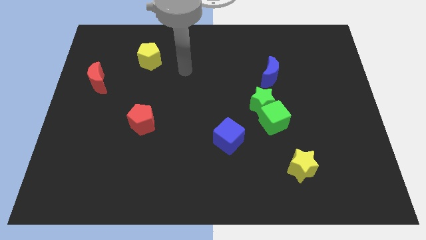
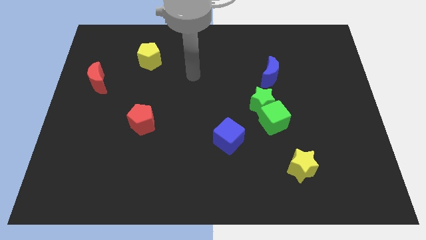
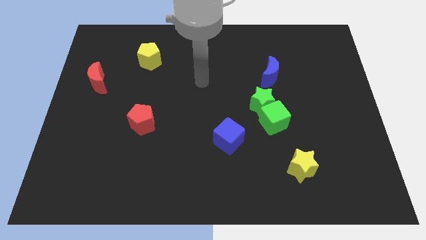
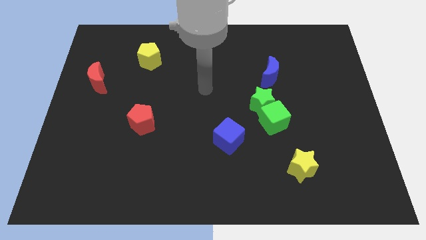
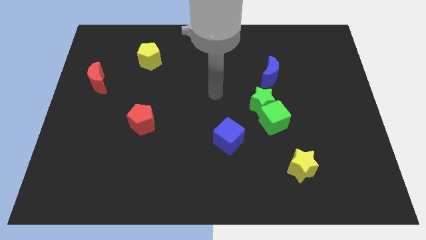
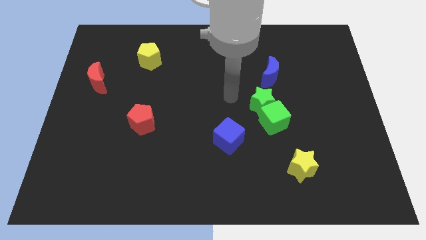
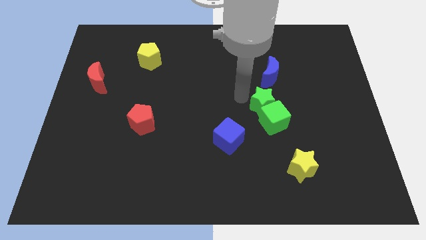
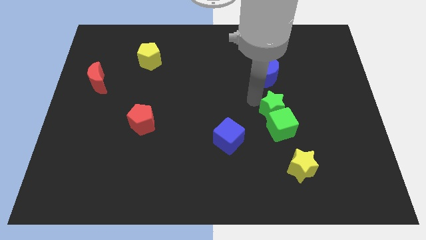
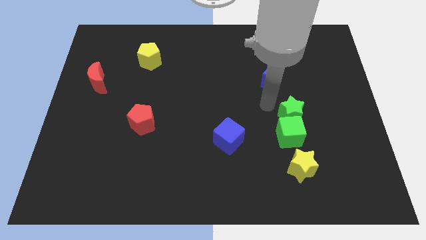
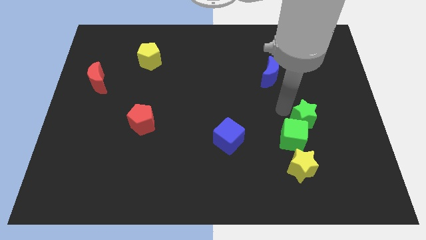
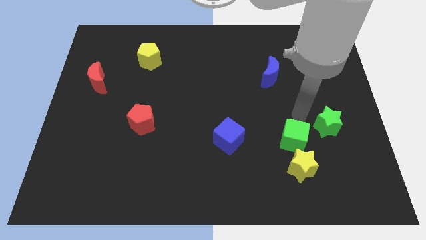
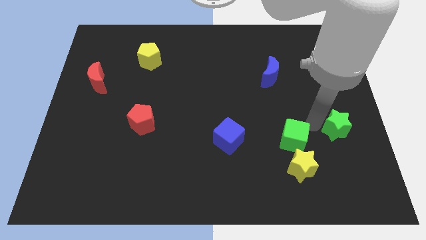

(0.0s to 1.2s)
move the green cube away from the green star

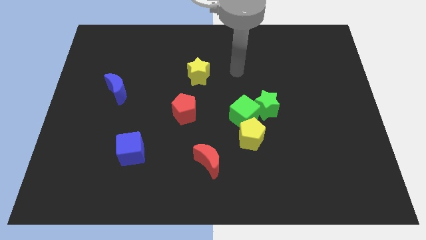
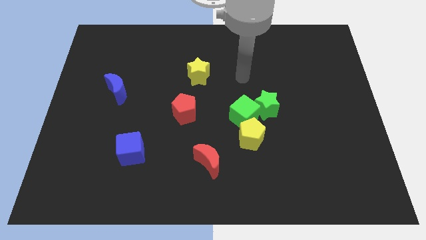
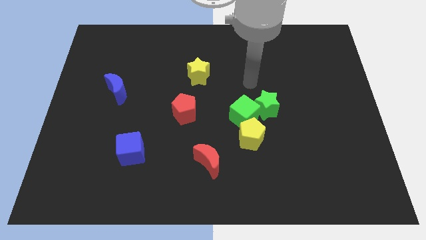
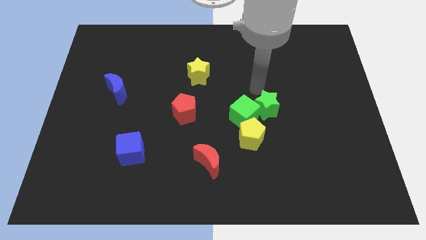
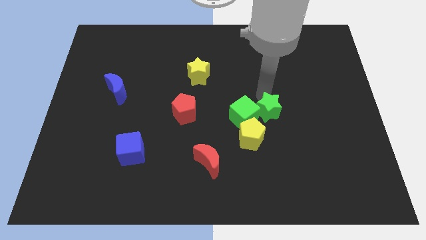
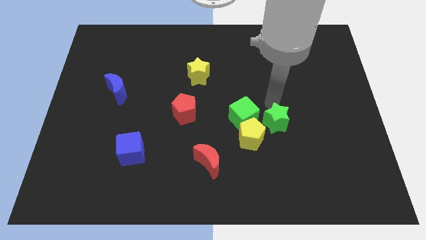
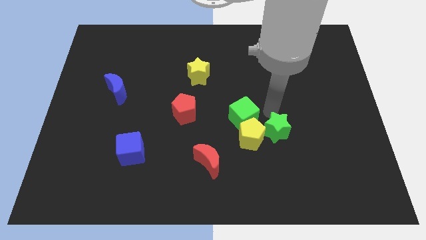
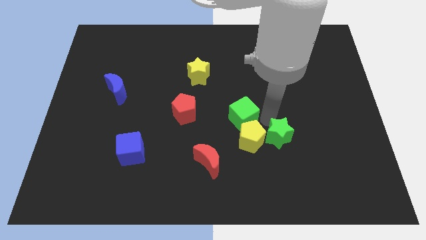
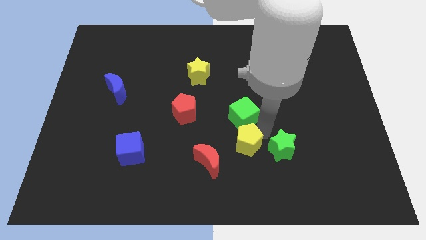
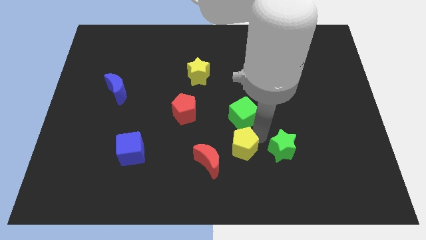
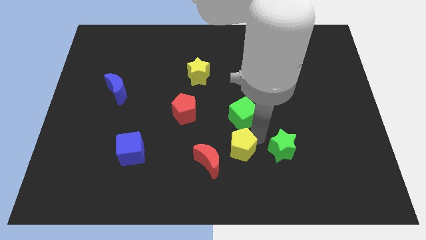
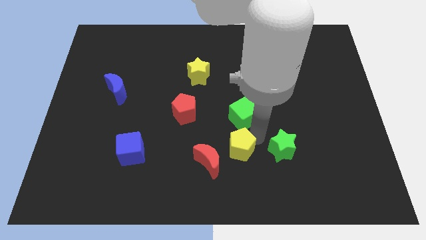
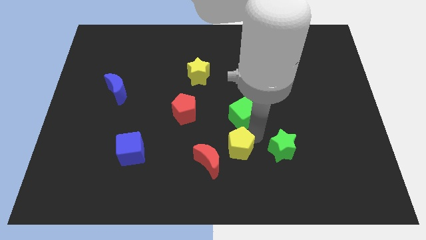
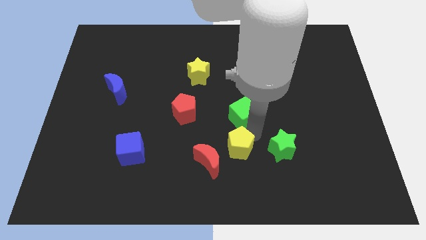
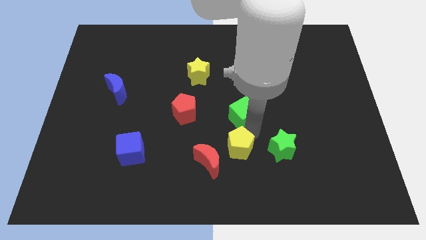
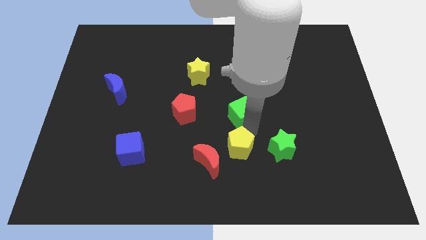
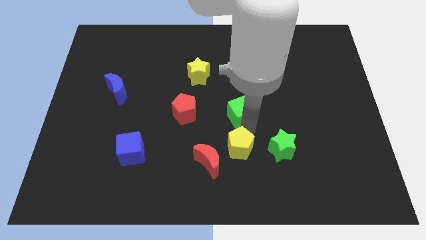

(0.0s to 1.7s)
pull the green cube apart from the green star and yellow pentagon

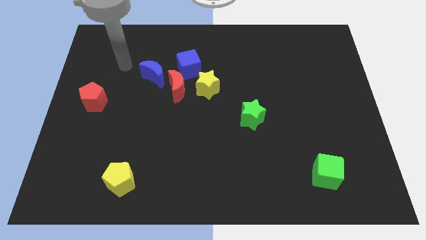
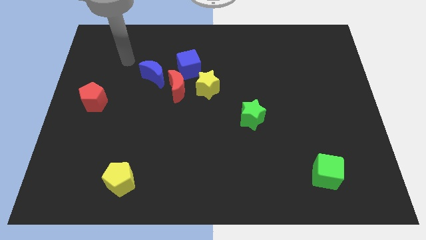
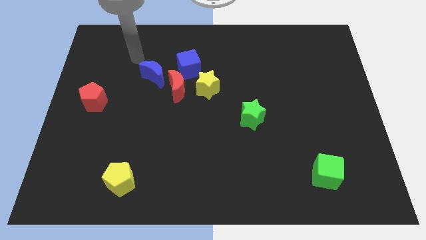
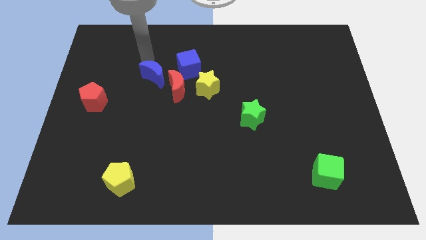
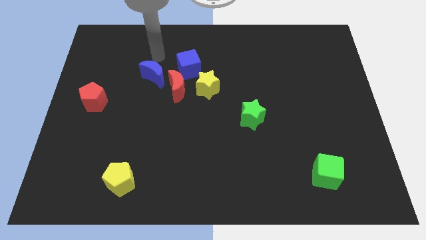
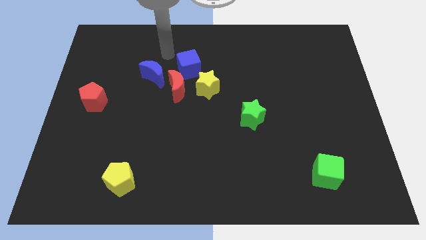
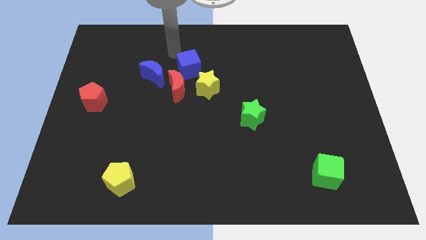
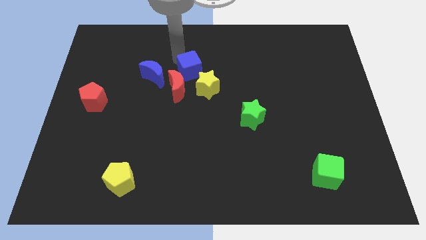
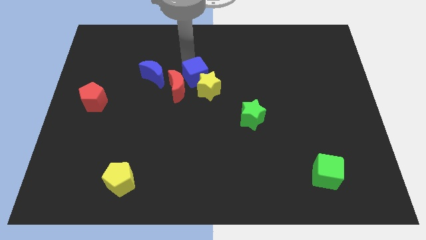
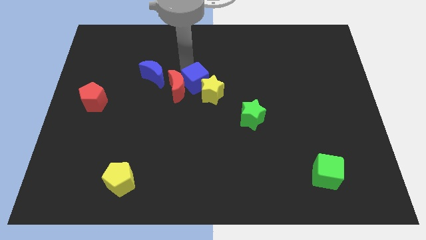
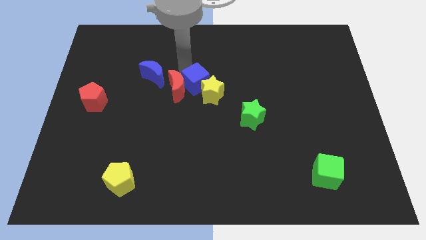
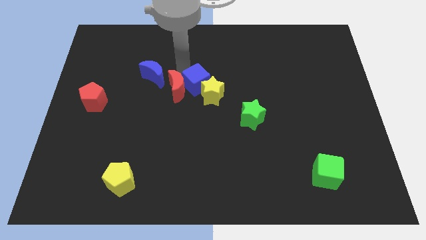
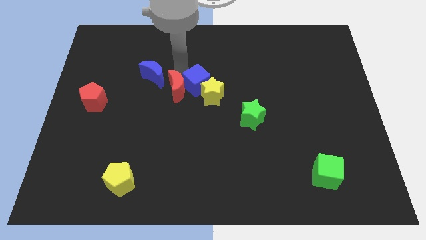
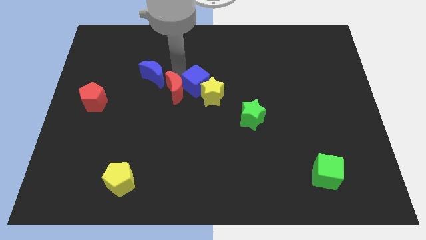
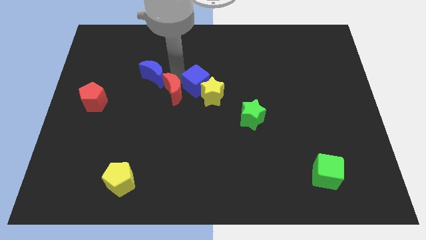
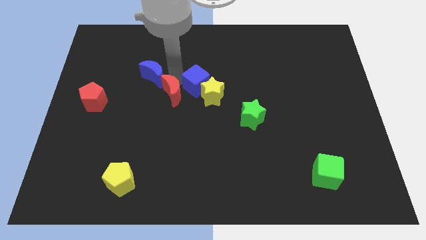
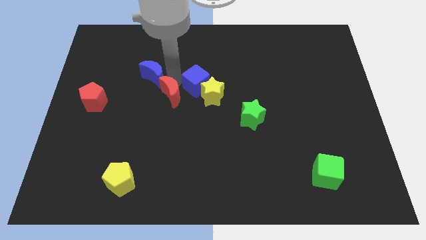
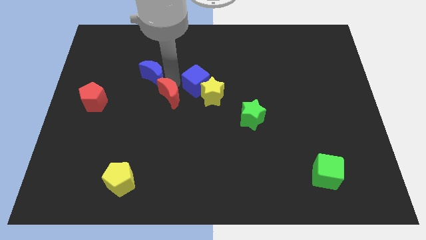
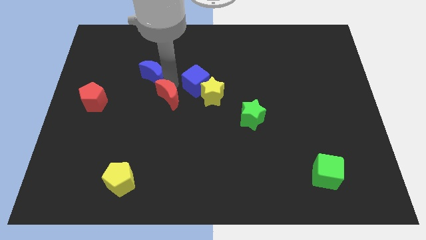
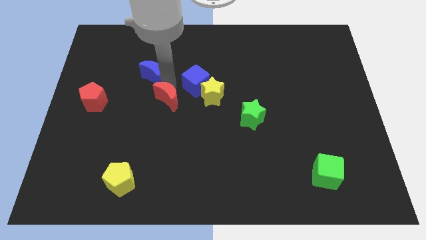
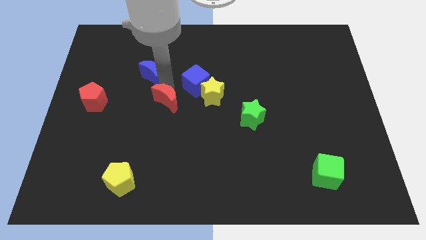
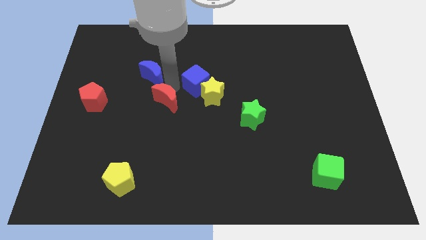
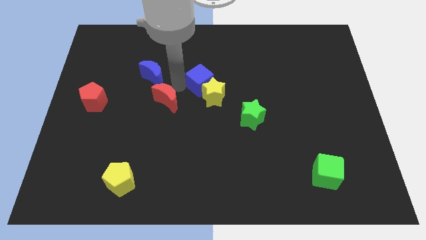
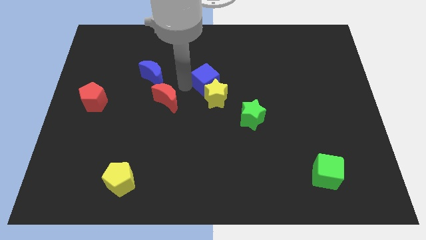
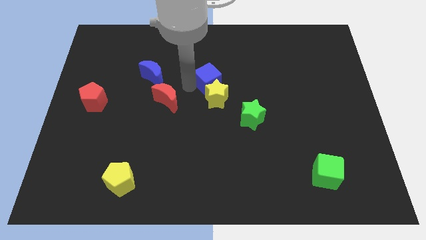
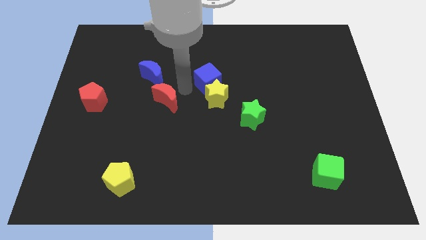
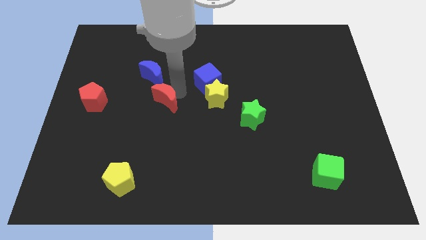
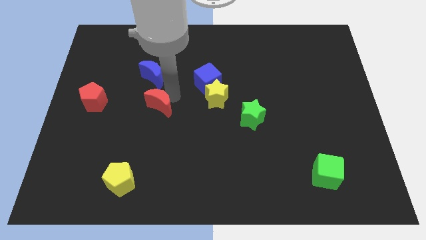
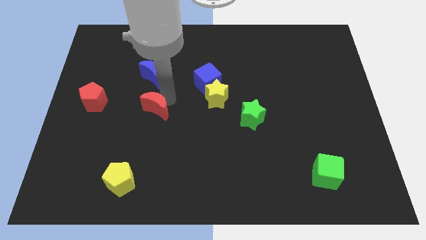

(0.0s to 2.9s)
pull the red moon apart from the yellow star, blue moon, and blue cube

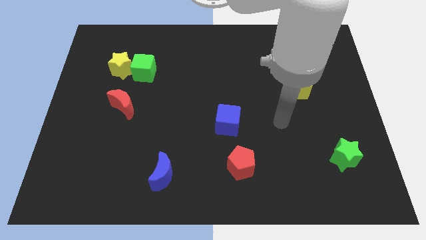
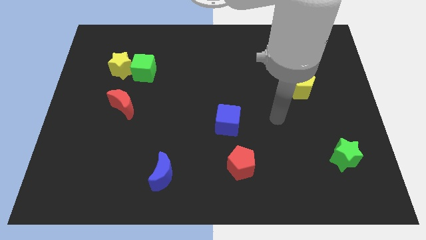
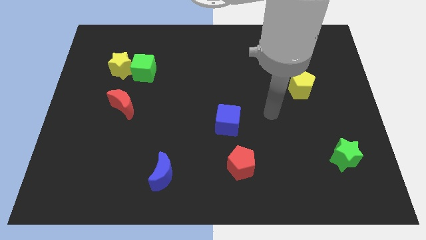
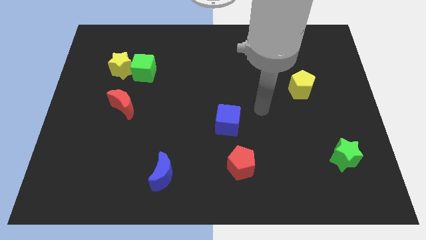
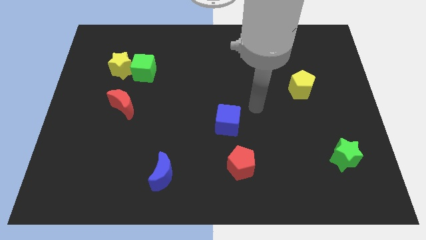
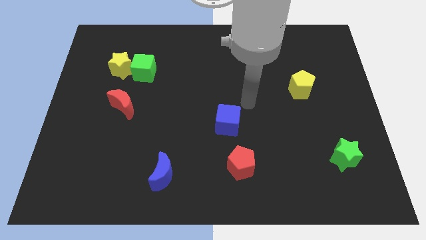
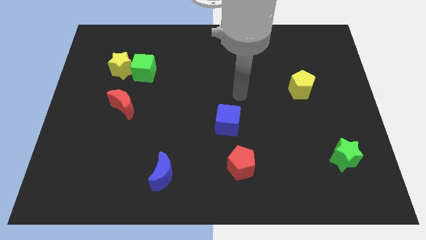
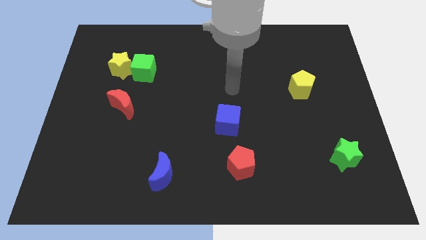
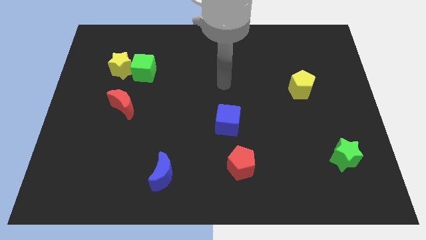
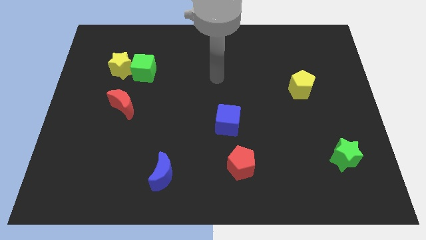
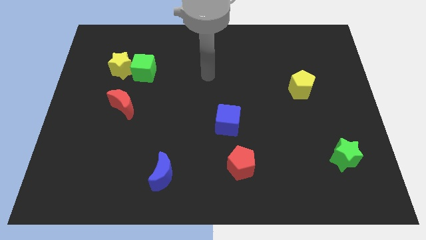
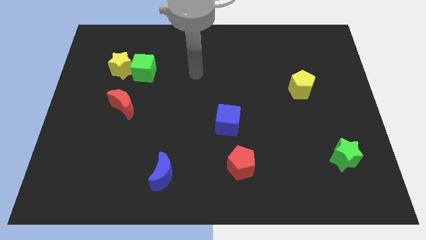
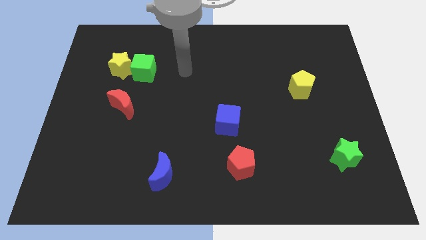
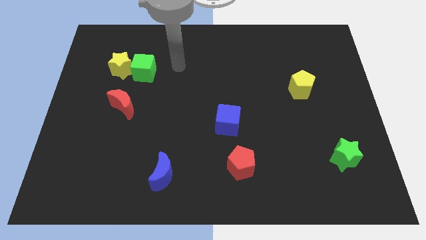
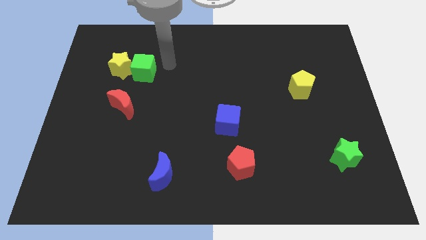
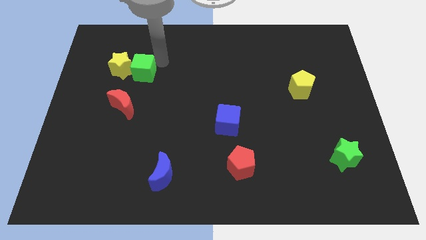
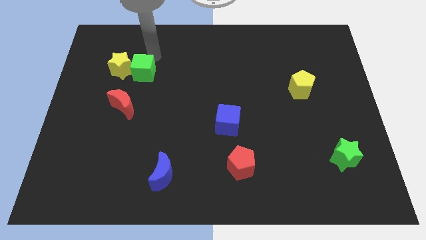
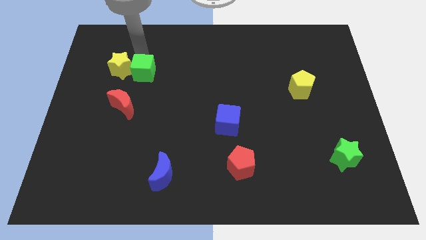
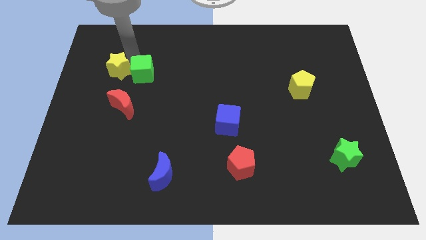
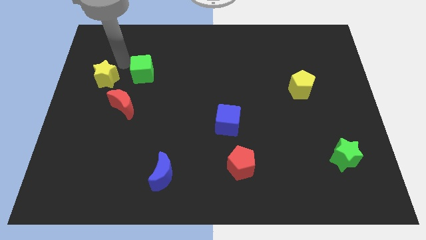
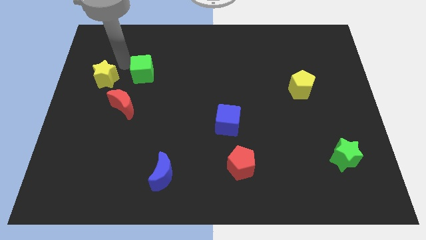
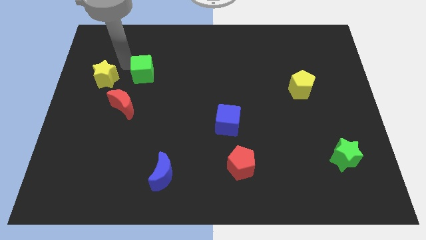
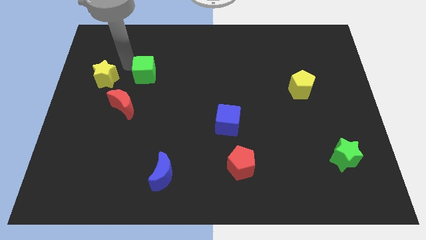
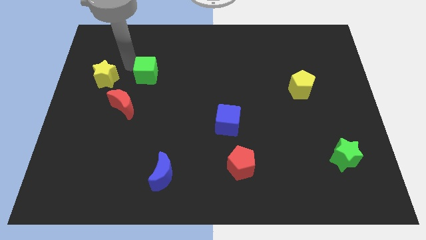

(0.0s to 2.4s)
separate the green cube from the yellow star

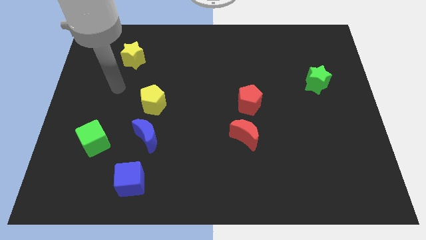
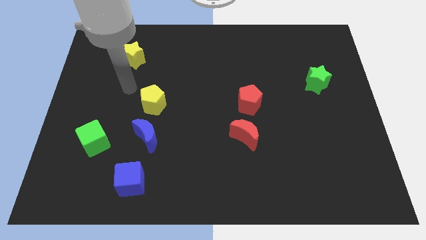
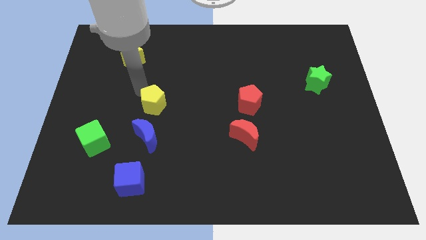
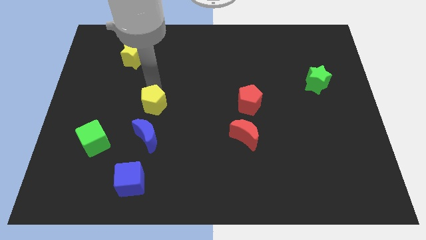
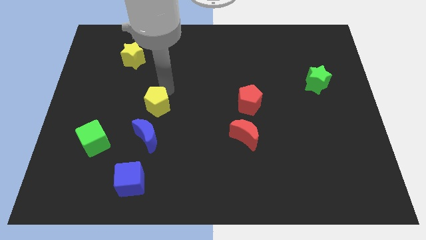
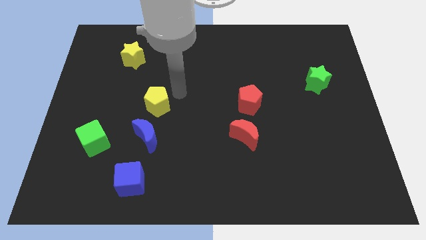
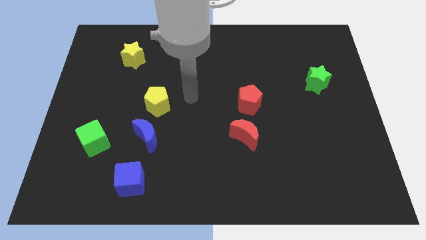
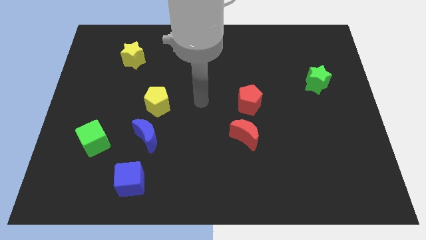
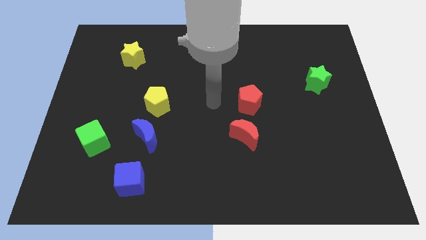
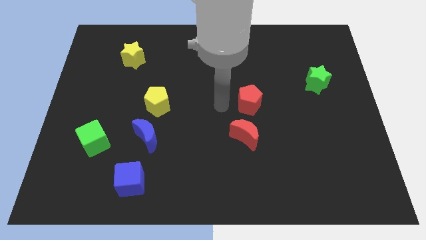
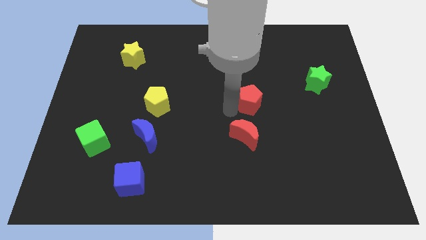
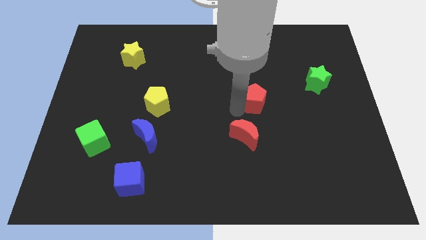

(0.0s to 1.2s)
pull the red moon apart from the red pentagon
